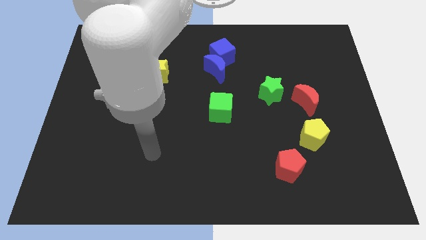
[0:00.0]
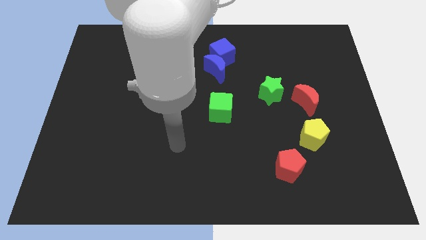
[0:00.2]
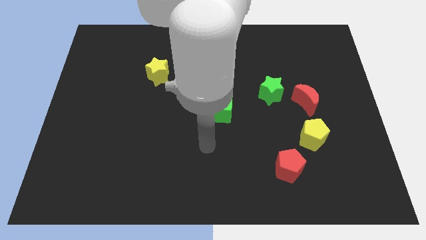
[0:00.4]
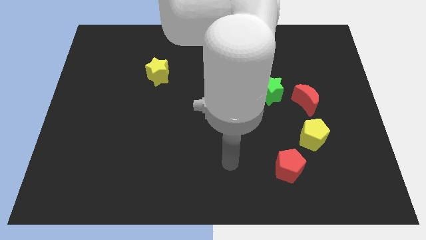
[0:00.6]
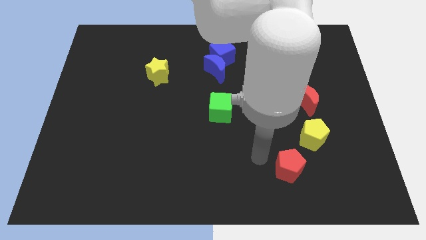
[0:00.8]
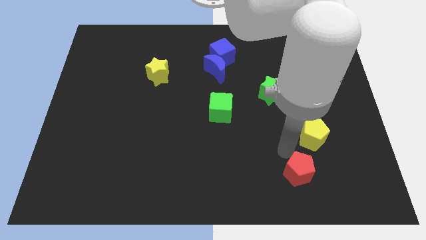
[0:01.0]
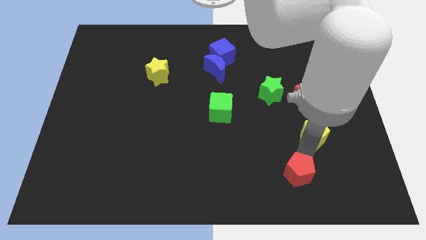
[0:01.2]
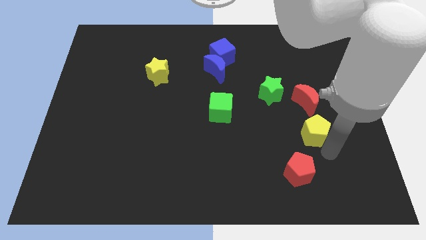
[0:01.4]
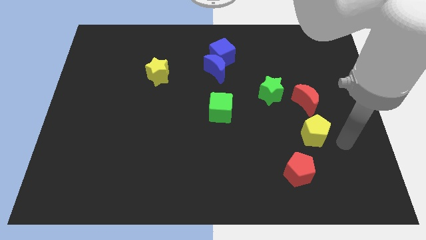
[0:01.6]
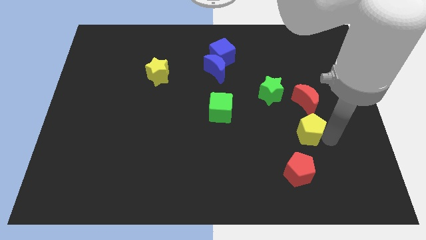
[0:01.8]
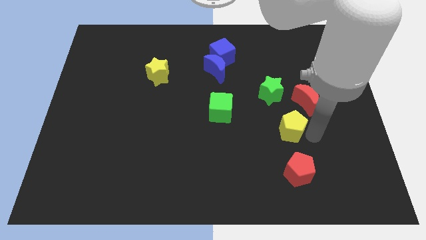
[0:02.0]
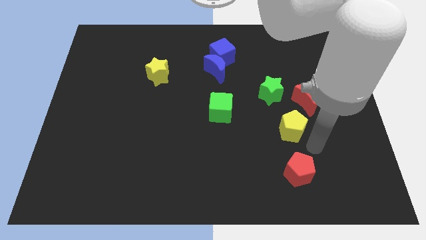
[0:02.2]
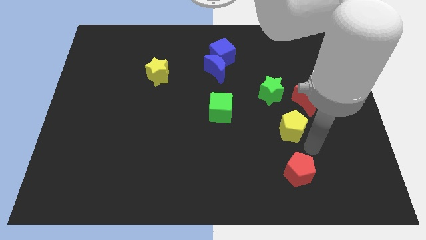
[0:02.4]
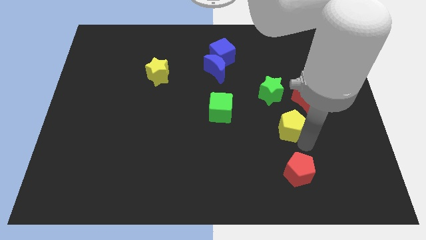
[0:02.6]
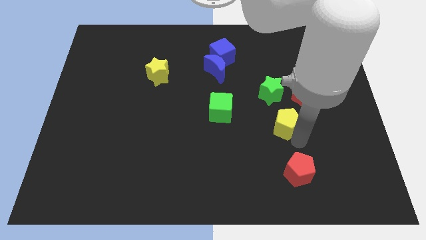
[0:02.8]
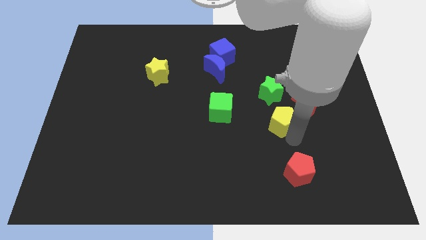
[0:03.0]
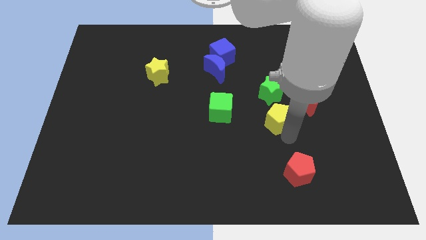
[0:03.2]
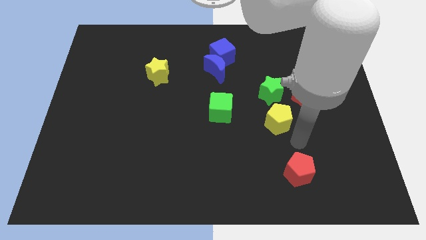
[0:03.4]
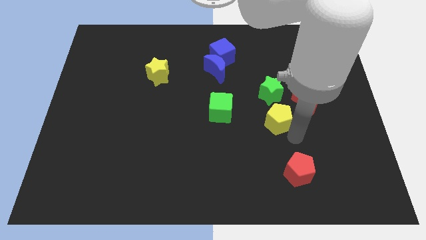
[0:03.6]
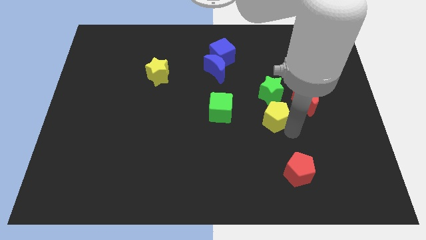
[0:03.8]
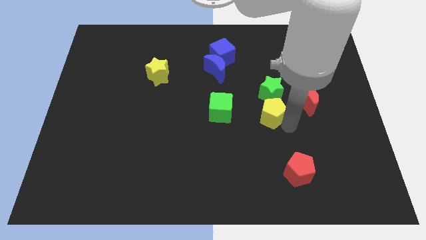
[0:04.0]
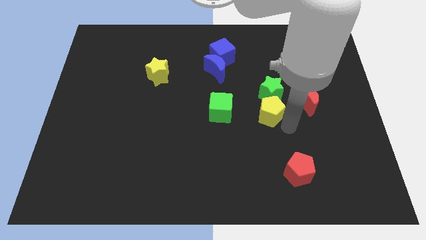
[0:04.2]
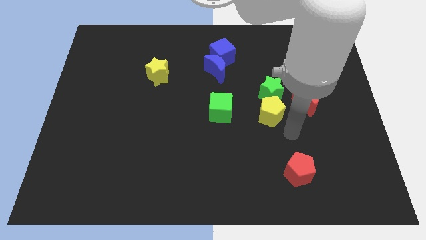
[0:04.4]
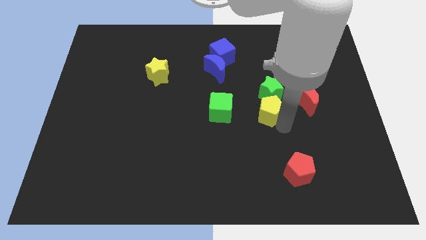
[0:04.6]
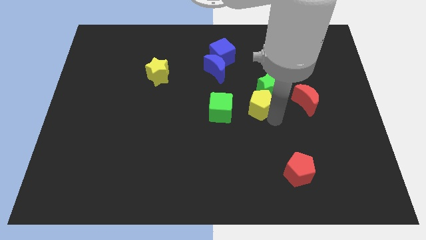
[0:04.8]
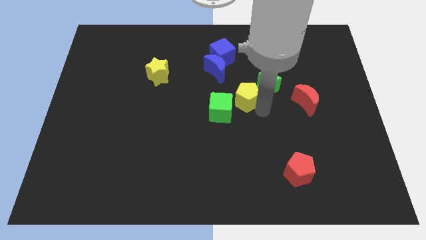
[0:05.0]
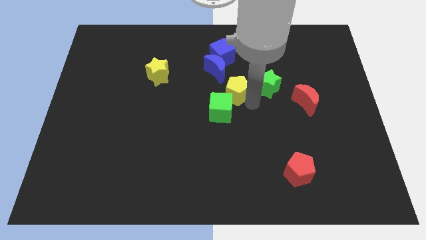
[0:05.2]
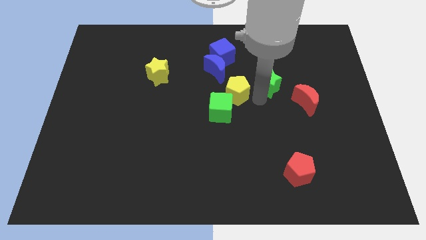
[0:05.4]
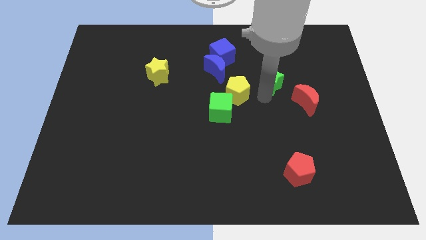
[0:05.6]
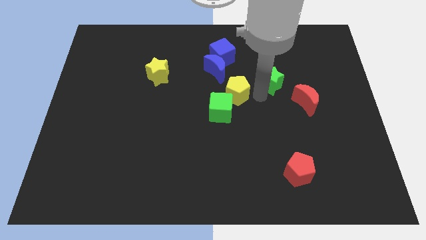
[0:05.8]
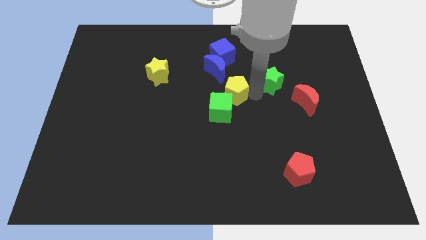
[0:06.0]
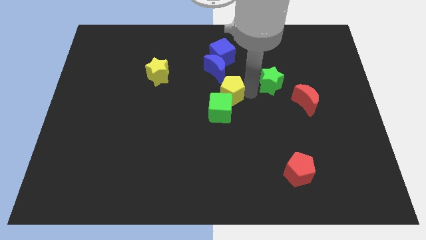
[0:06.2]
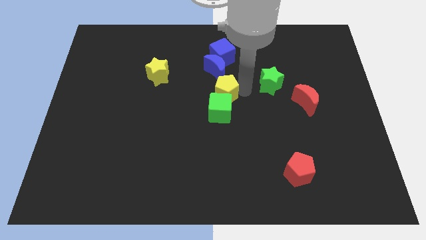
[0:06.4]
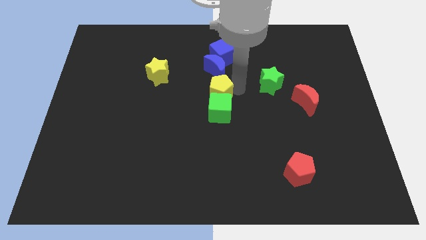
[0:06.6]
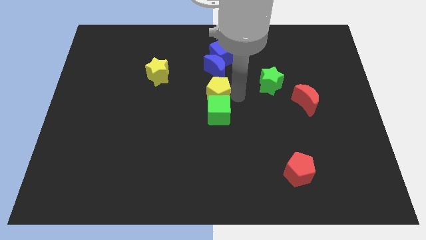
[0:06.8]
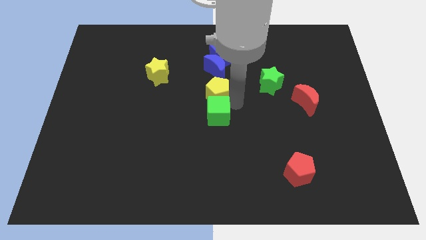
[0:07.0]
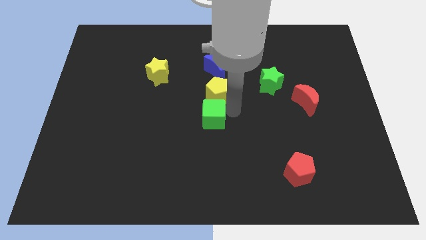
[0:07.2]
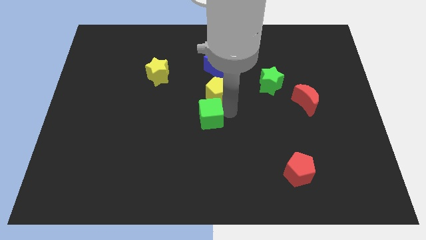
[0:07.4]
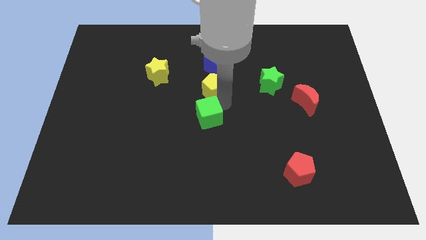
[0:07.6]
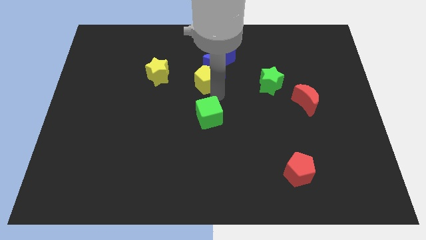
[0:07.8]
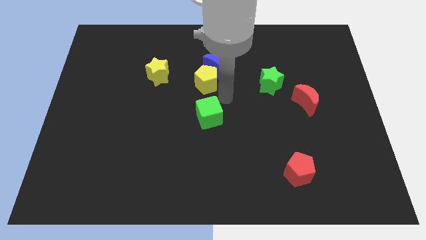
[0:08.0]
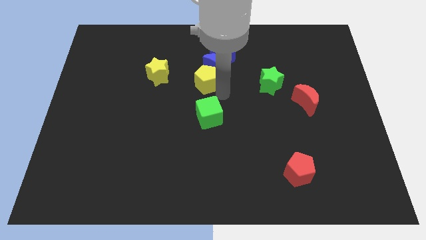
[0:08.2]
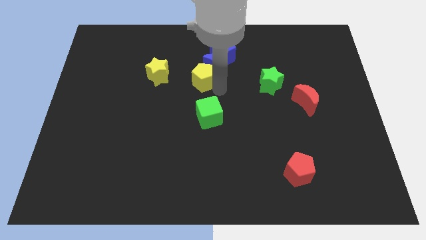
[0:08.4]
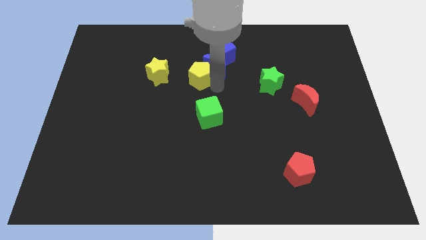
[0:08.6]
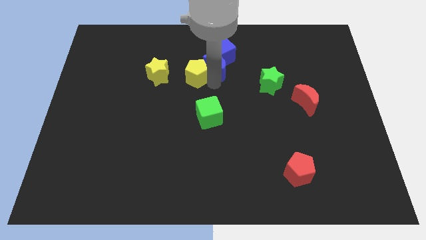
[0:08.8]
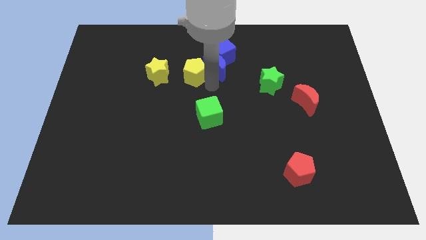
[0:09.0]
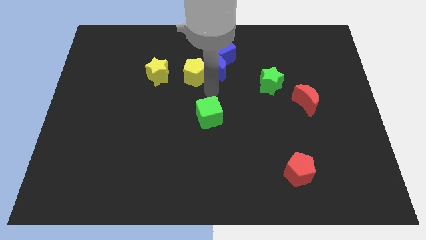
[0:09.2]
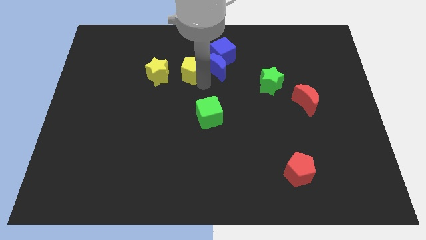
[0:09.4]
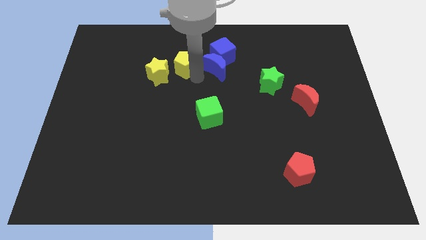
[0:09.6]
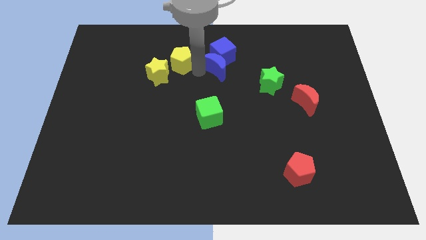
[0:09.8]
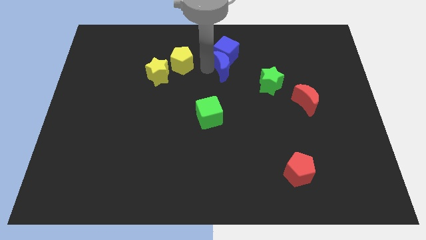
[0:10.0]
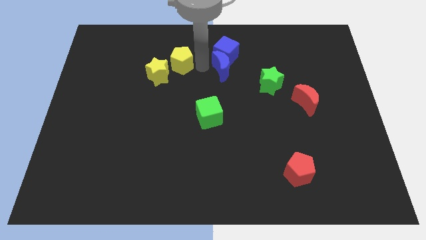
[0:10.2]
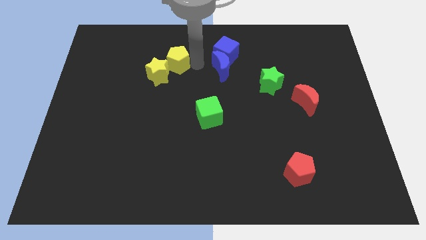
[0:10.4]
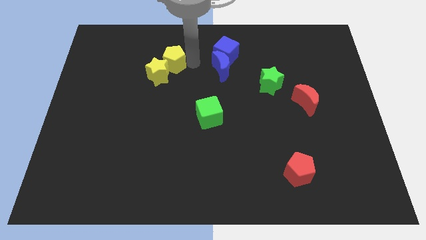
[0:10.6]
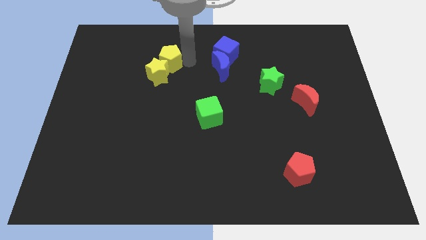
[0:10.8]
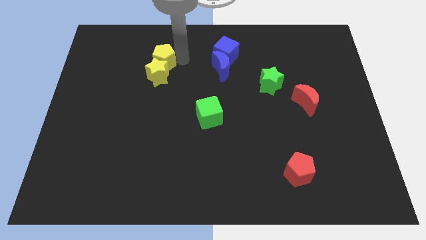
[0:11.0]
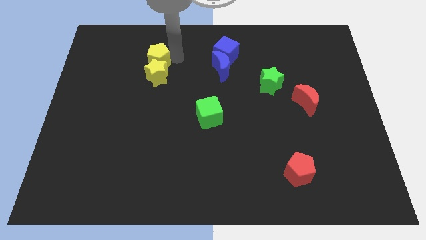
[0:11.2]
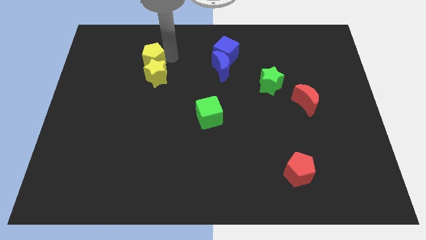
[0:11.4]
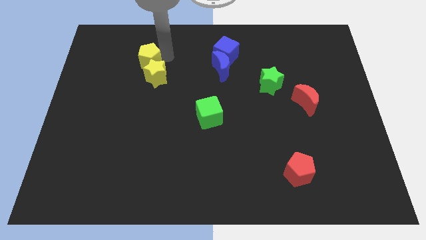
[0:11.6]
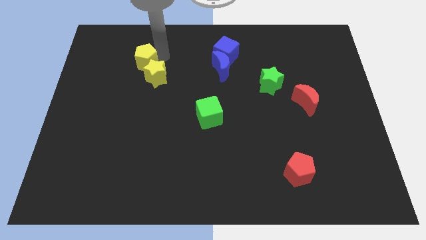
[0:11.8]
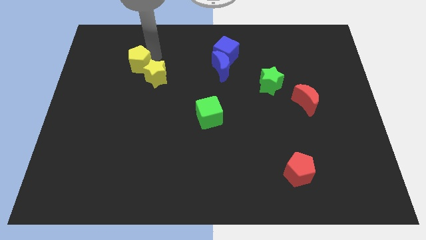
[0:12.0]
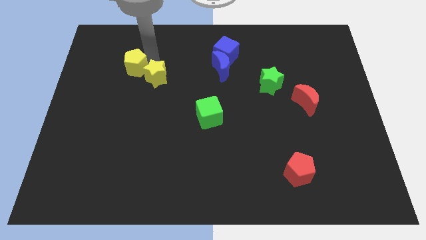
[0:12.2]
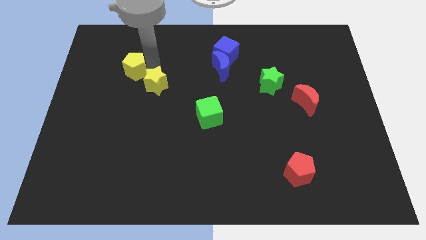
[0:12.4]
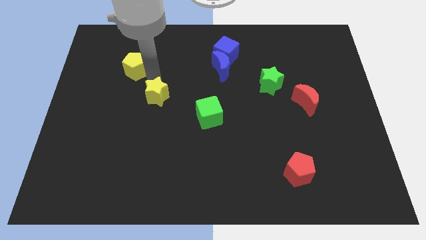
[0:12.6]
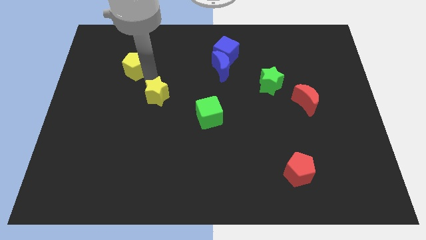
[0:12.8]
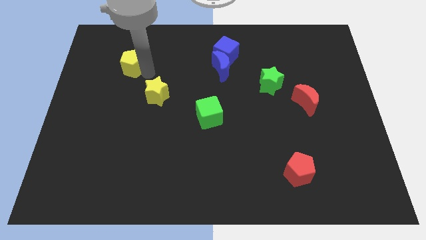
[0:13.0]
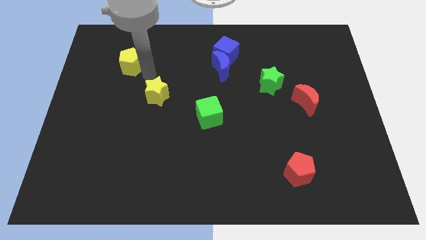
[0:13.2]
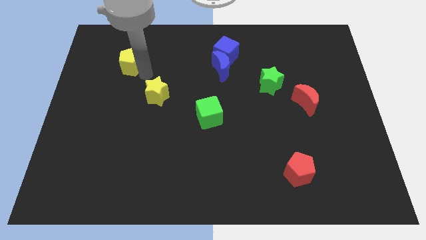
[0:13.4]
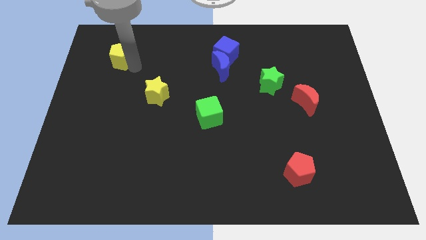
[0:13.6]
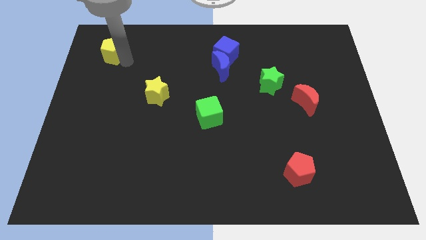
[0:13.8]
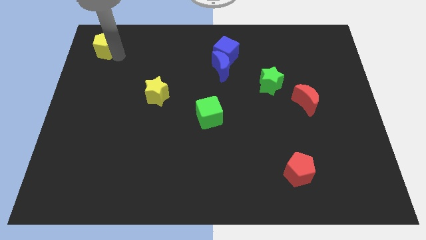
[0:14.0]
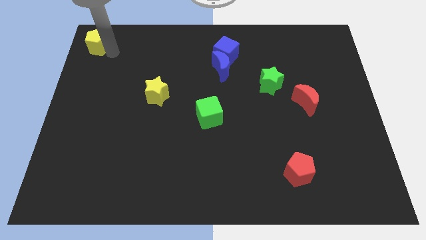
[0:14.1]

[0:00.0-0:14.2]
slide the yellow pentagon to the top left corner

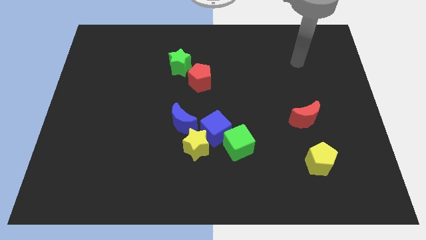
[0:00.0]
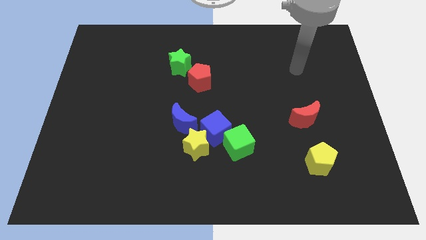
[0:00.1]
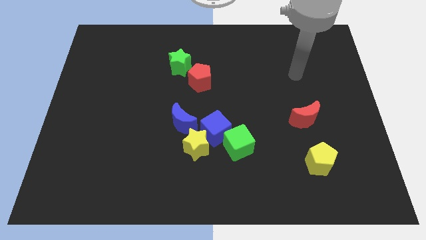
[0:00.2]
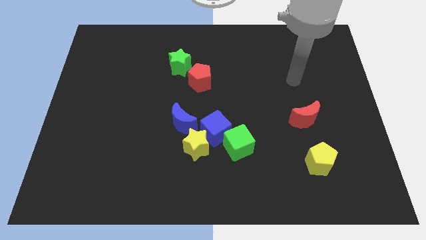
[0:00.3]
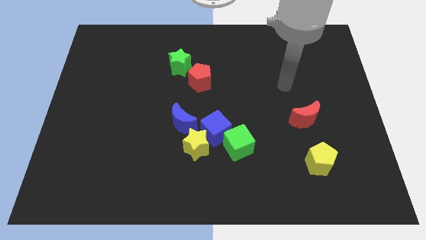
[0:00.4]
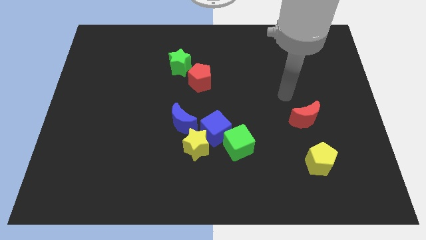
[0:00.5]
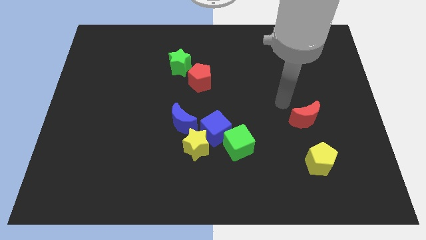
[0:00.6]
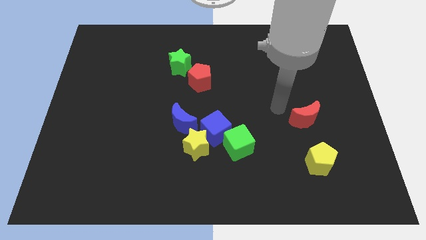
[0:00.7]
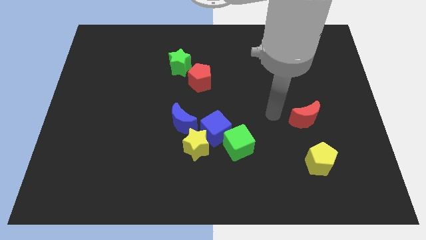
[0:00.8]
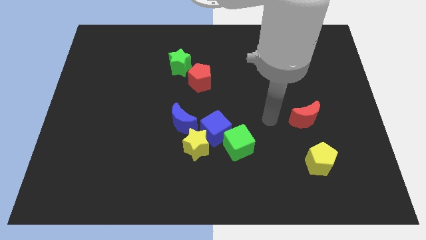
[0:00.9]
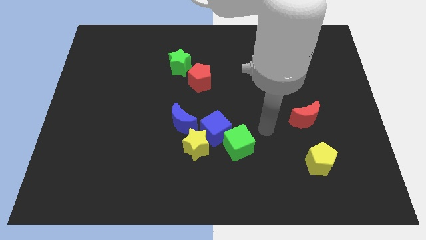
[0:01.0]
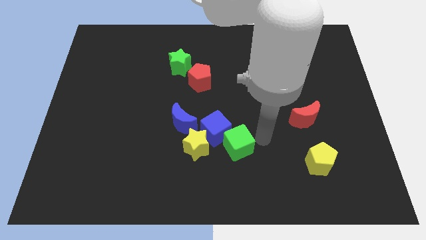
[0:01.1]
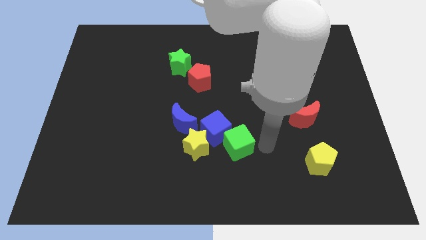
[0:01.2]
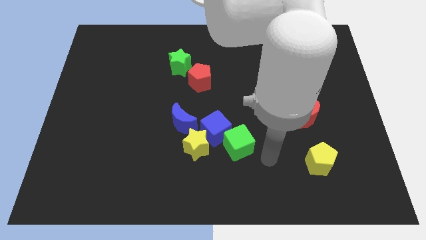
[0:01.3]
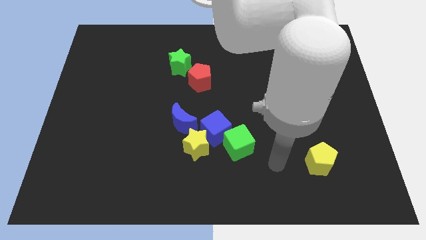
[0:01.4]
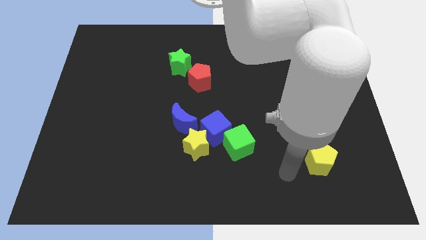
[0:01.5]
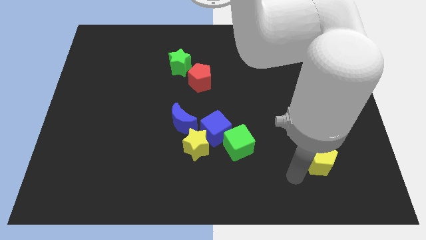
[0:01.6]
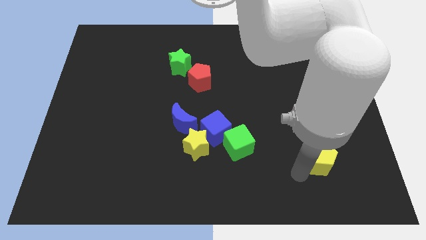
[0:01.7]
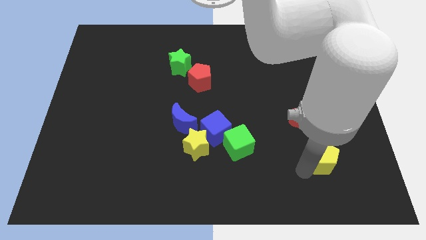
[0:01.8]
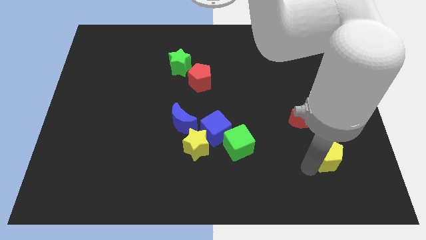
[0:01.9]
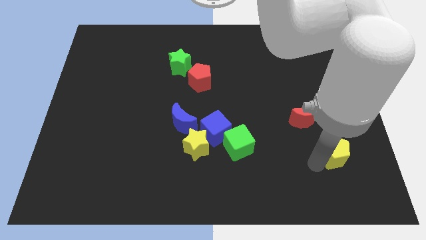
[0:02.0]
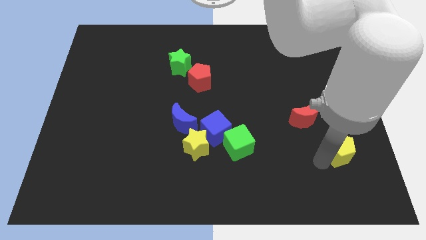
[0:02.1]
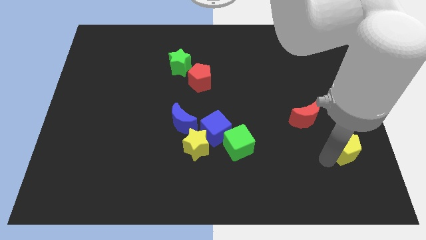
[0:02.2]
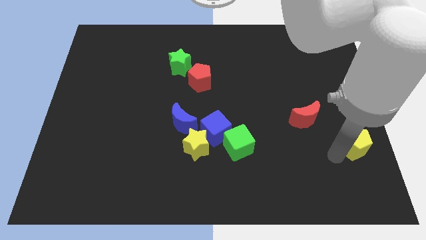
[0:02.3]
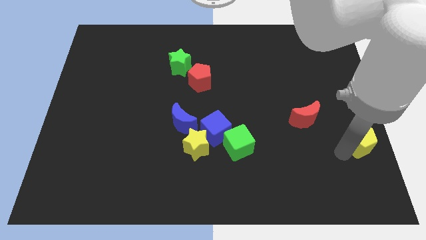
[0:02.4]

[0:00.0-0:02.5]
move the yellow pentagon to the right side
